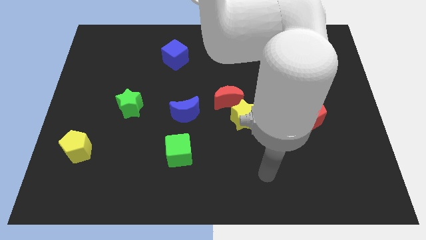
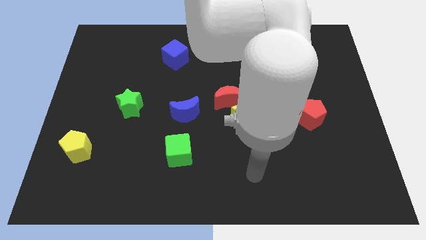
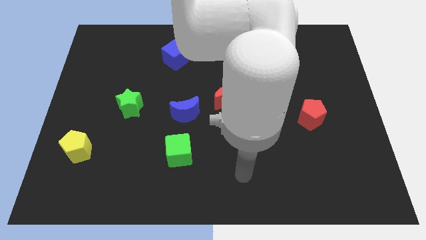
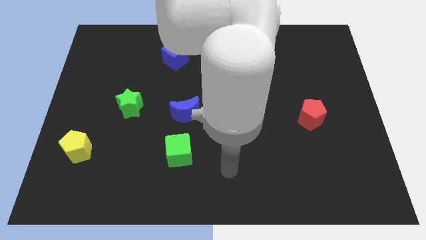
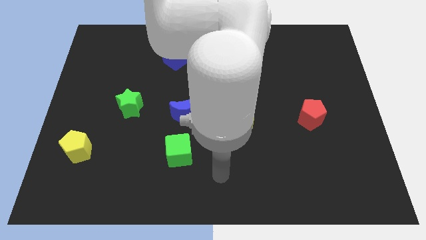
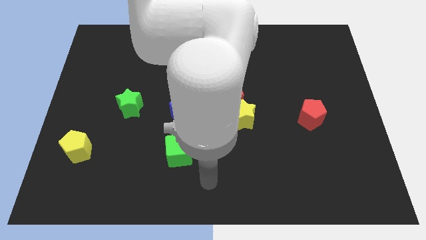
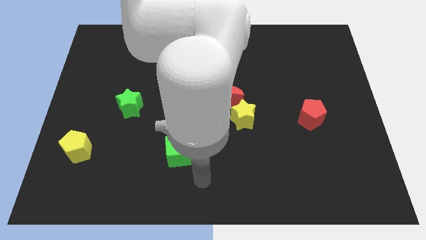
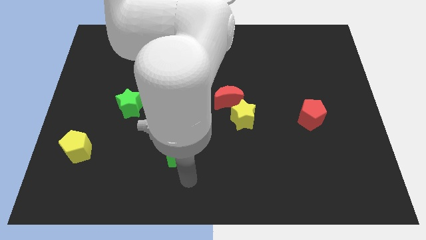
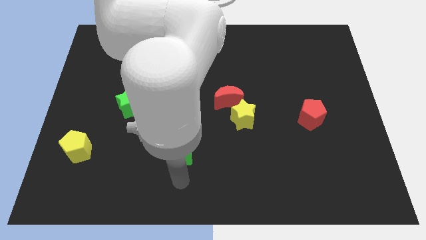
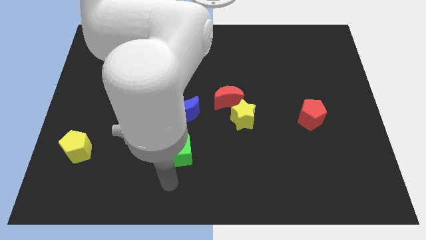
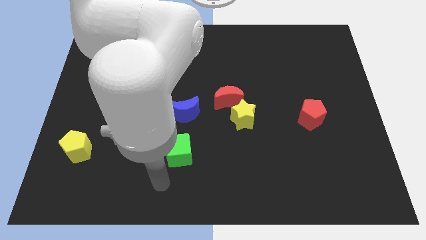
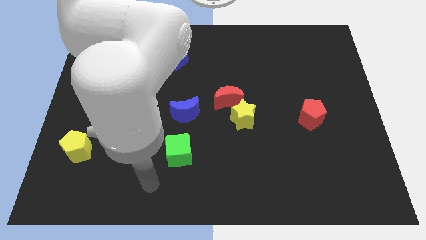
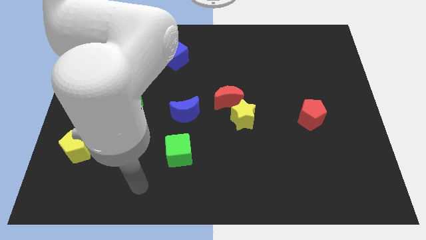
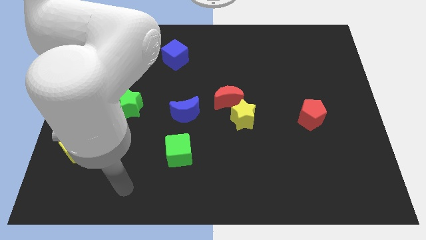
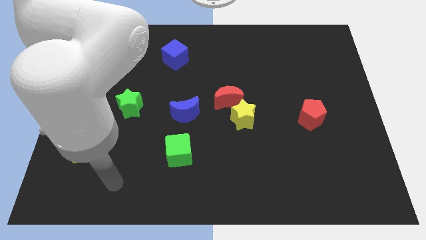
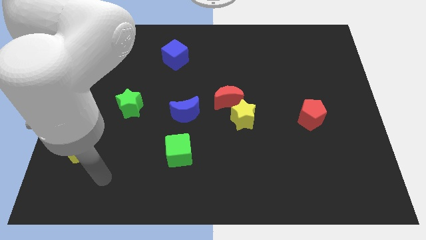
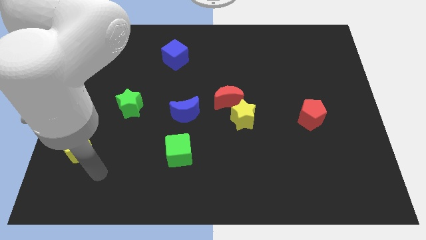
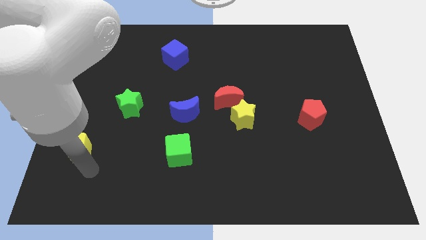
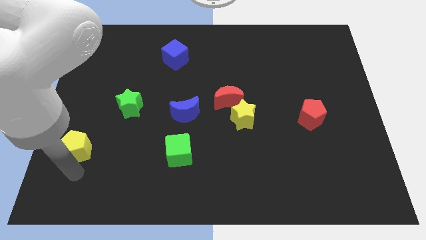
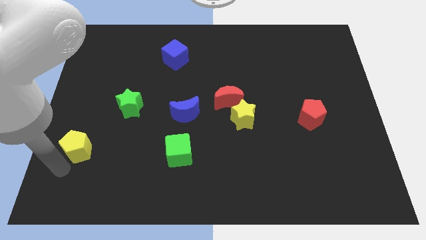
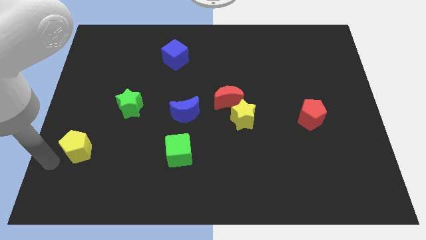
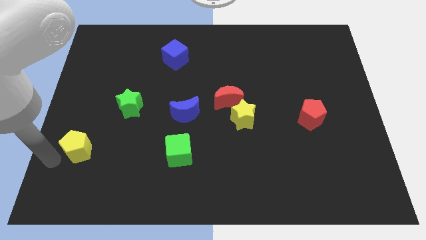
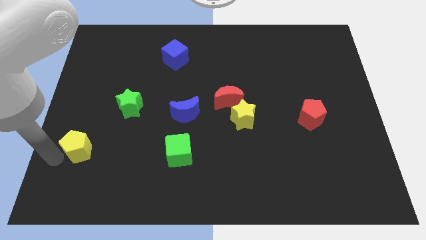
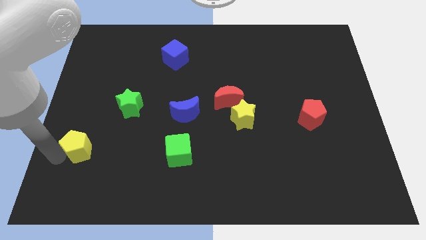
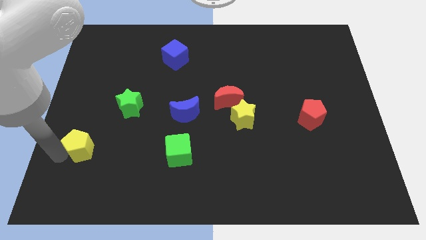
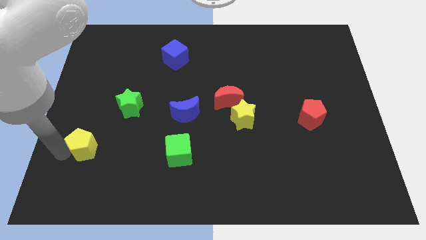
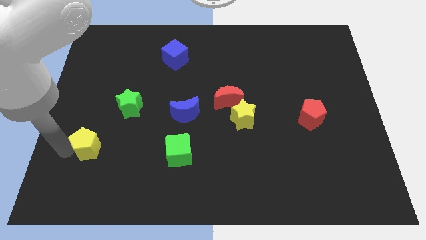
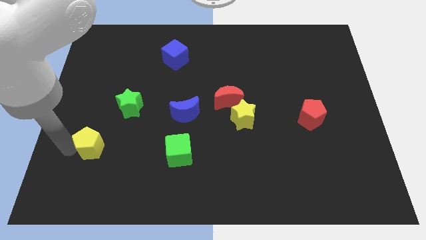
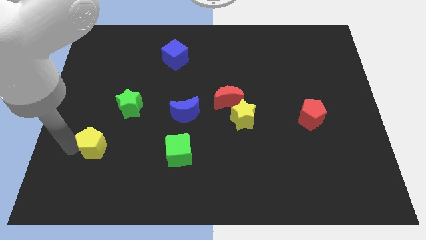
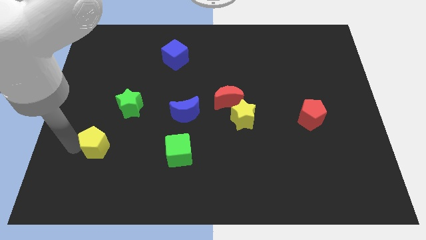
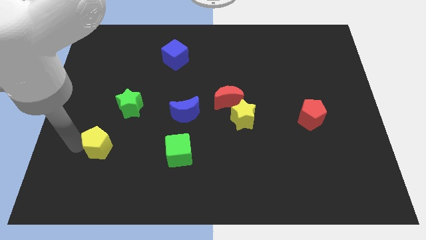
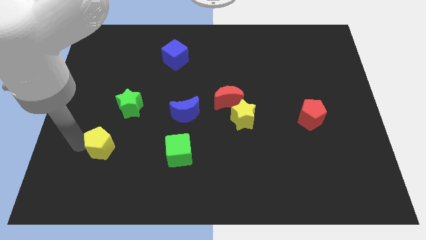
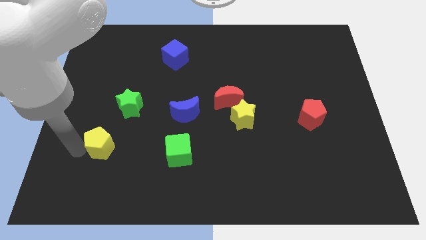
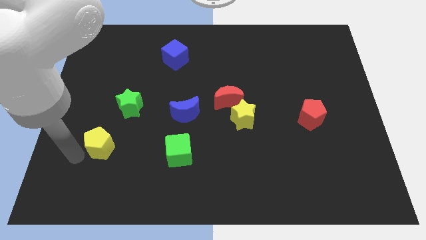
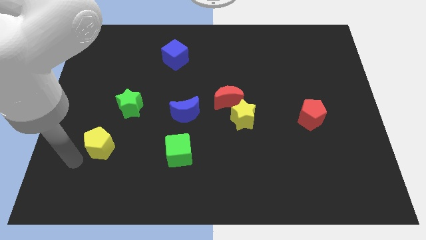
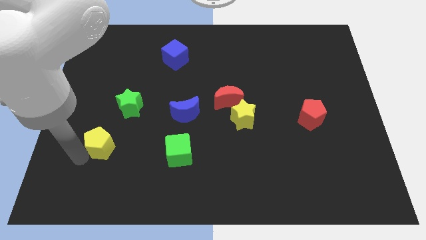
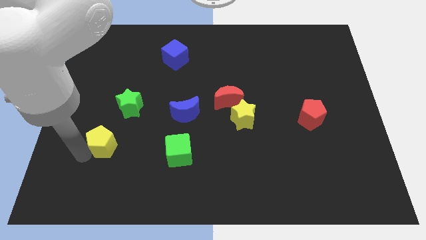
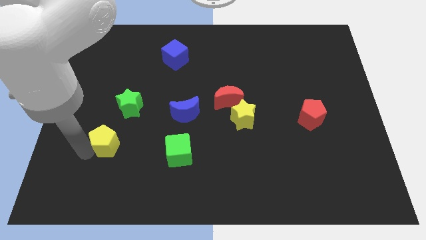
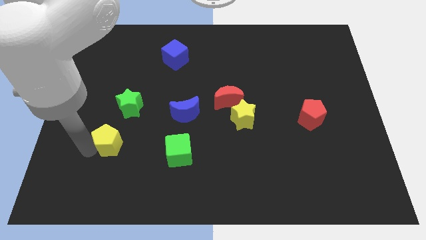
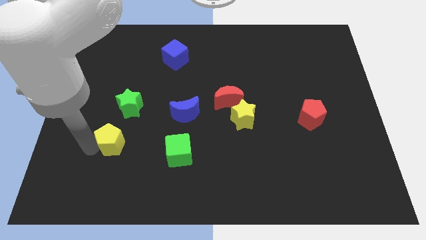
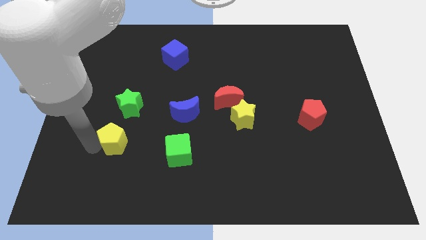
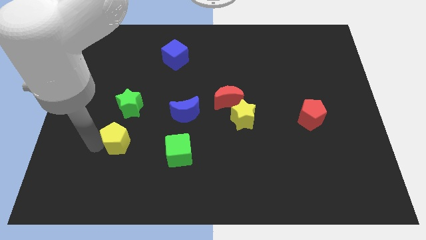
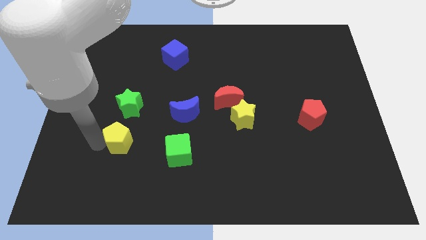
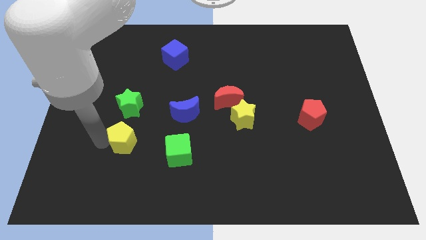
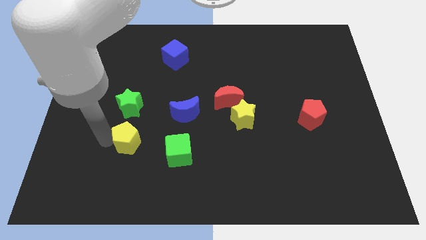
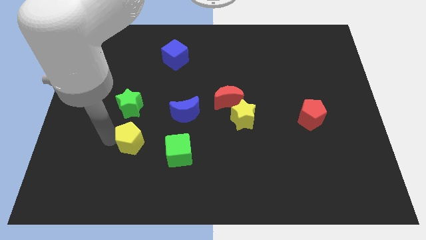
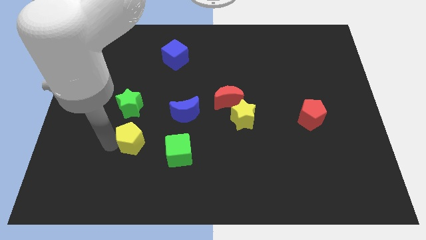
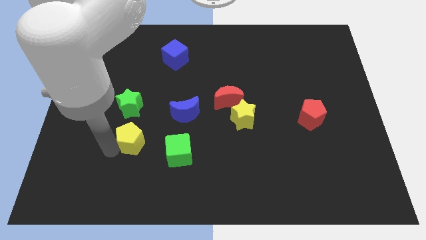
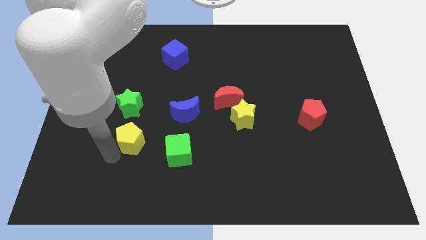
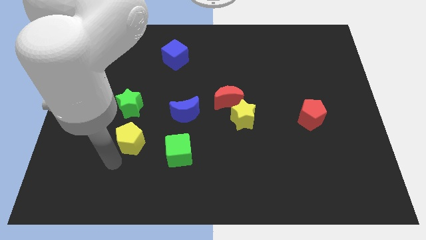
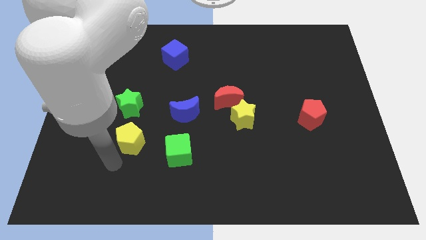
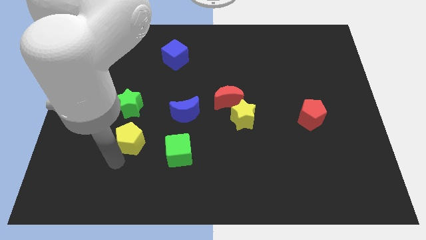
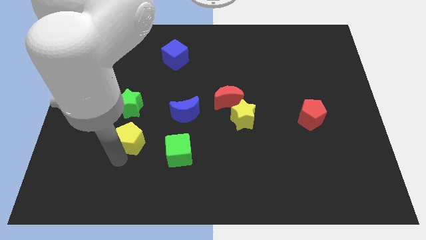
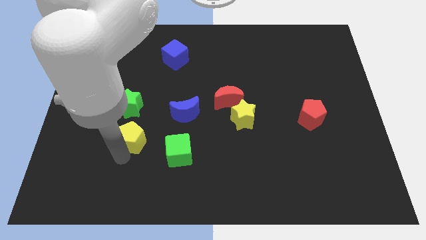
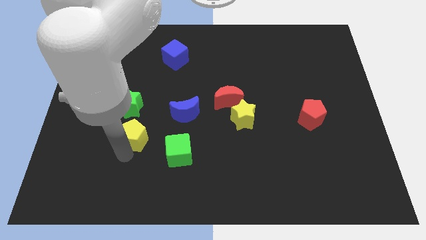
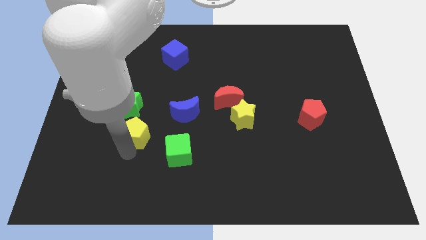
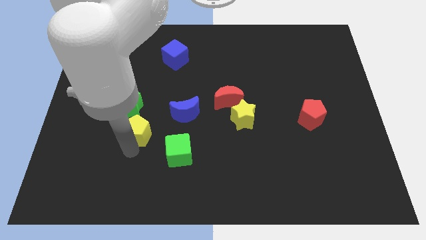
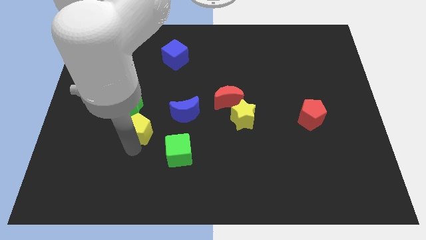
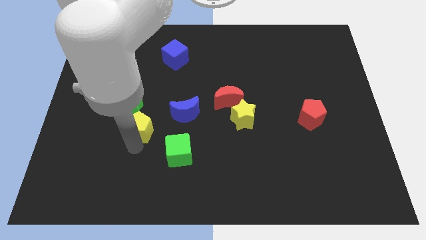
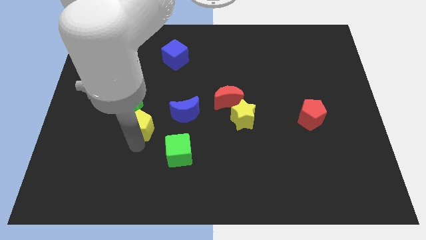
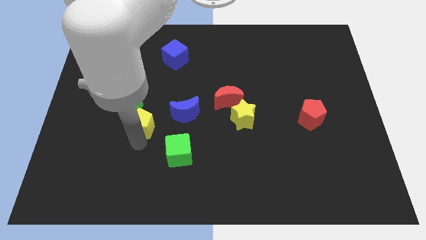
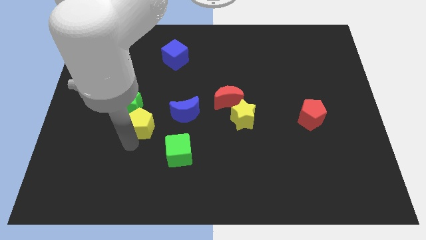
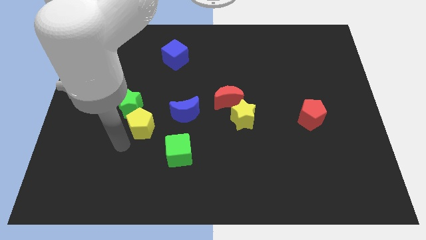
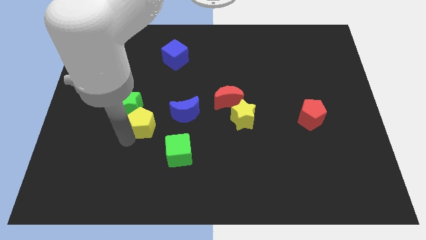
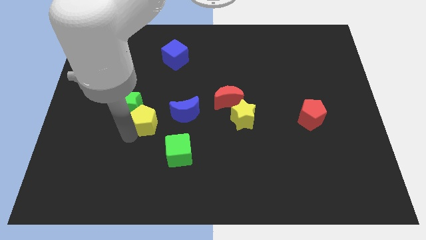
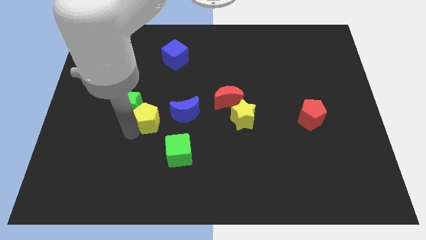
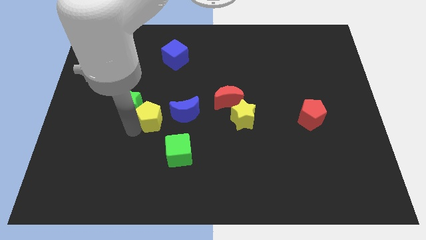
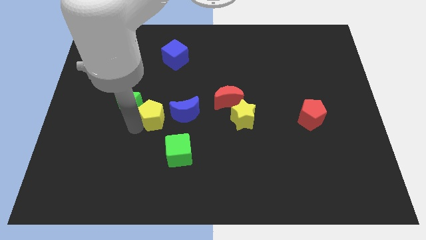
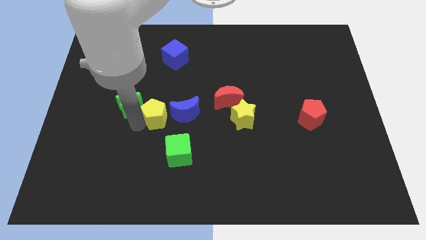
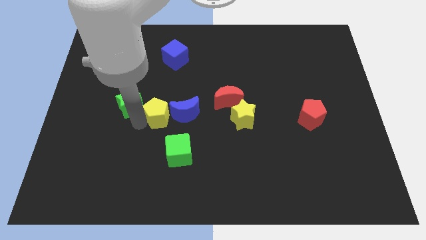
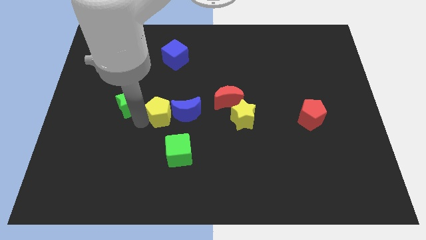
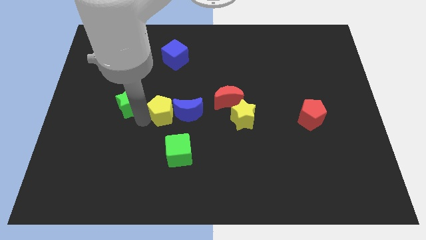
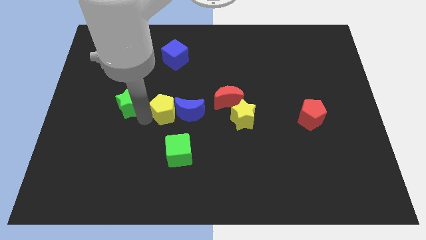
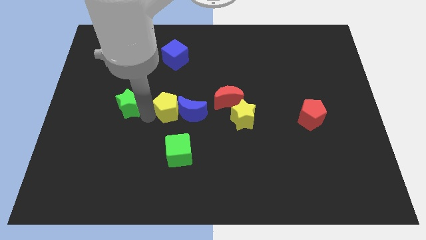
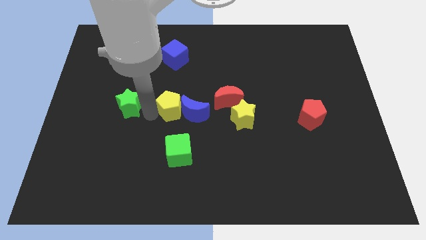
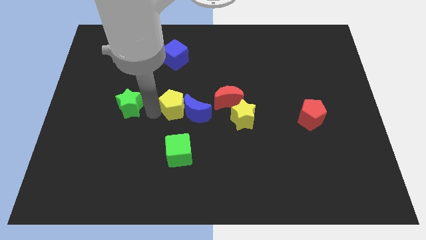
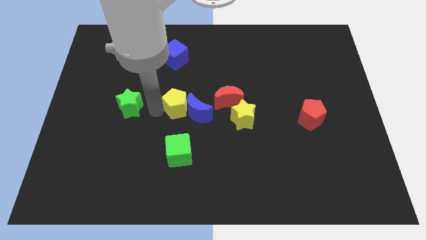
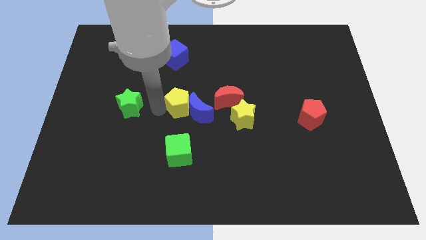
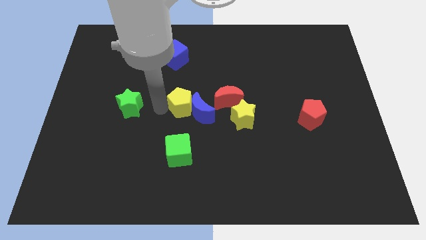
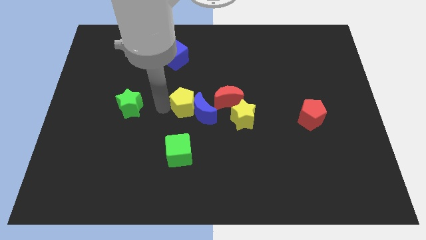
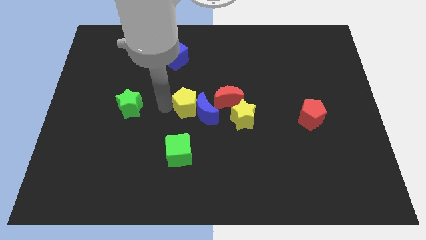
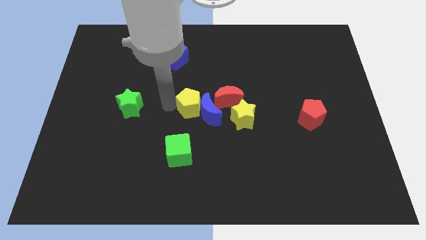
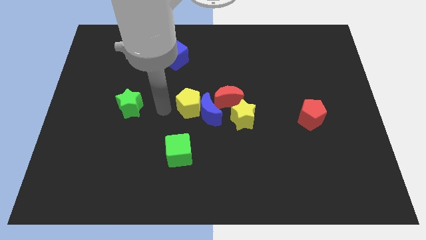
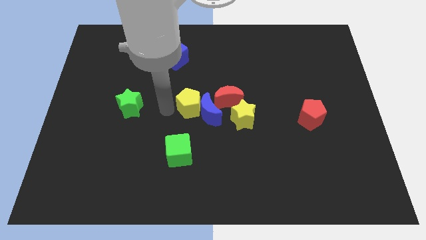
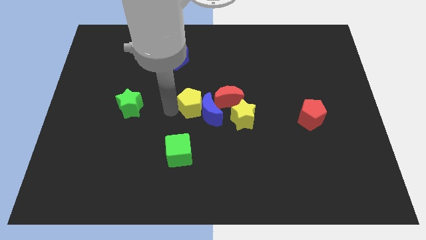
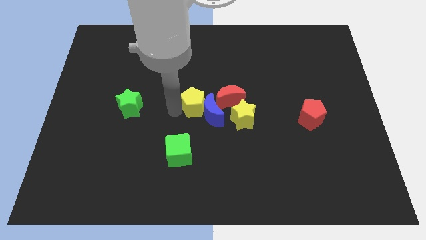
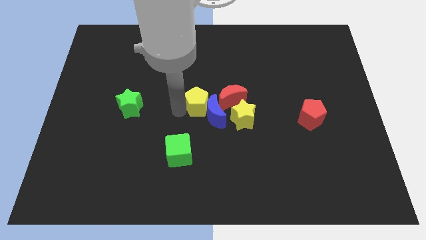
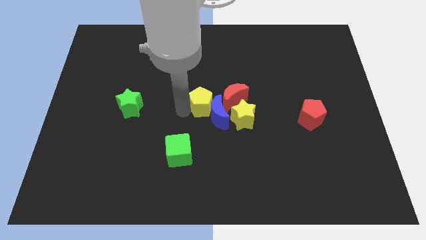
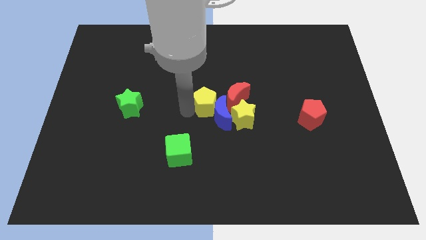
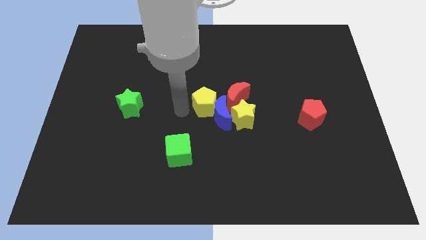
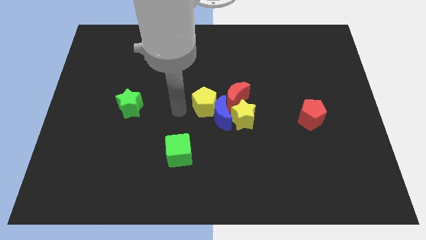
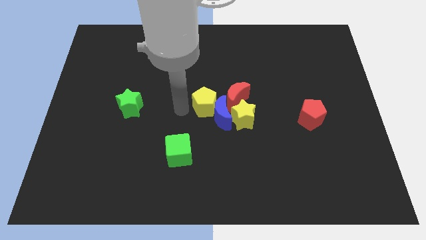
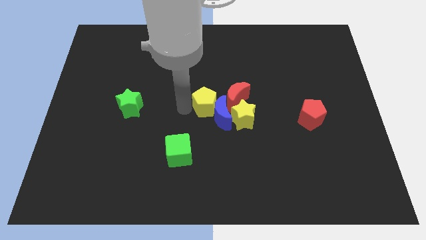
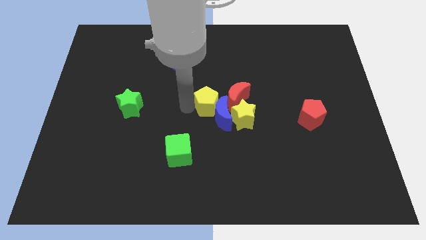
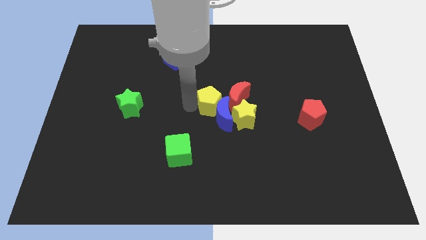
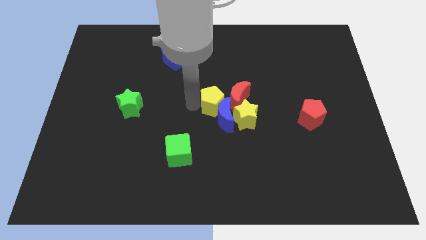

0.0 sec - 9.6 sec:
slide the yellow pentagon next to the red moon
